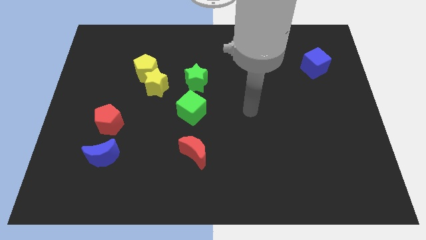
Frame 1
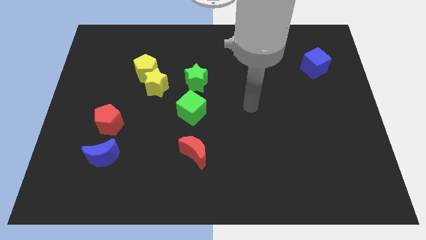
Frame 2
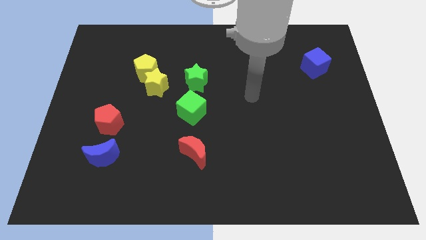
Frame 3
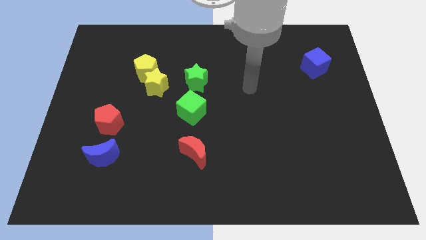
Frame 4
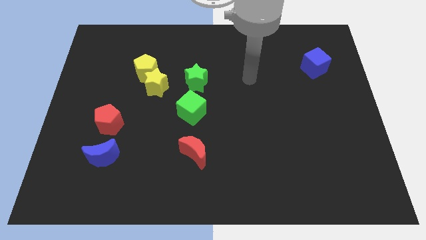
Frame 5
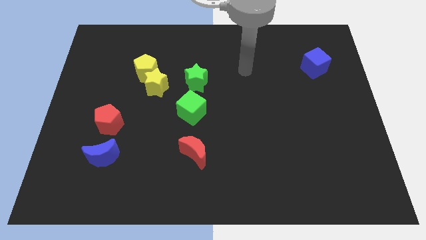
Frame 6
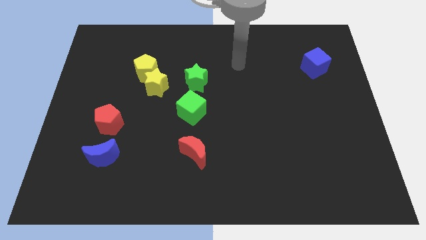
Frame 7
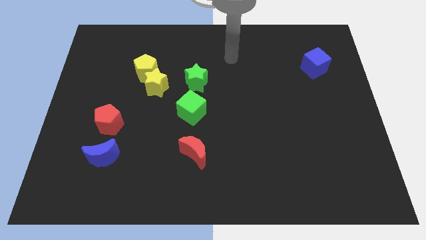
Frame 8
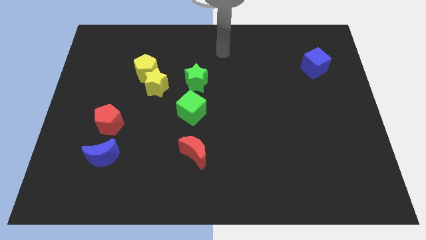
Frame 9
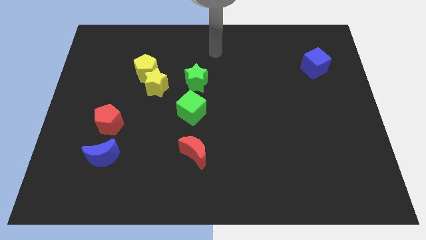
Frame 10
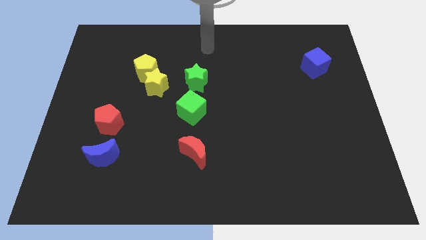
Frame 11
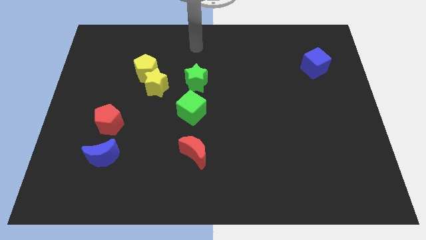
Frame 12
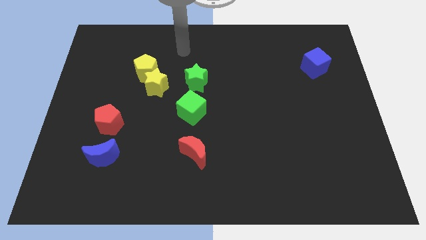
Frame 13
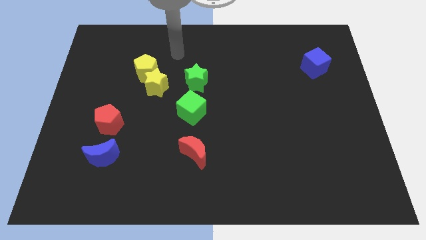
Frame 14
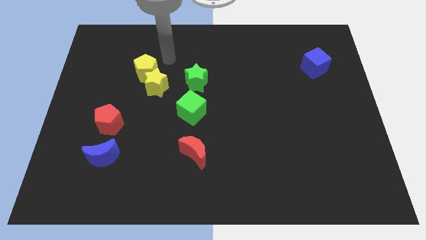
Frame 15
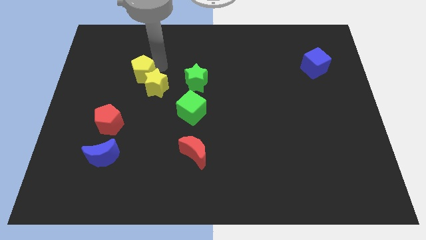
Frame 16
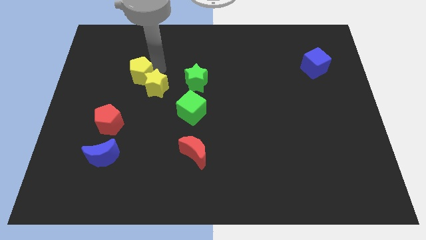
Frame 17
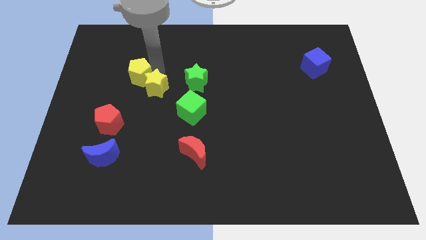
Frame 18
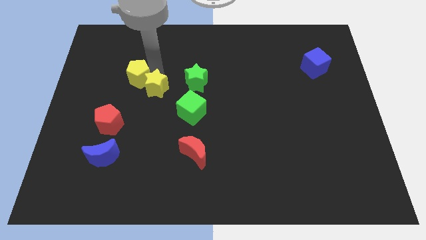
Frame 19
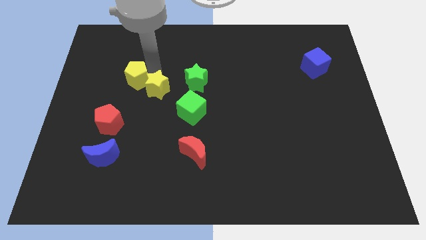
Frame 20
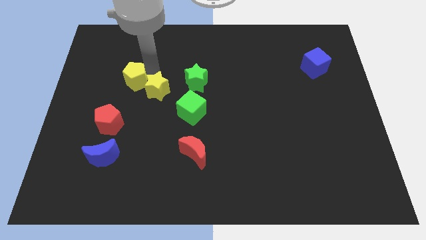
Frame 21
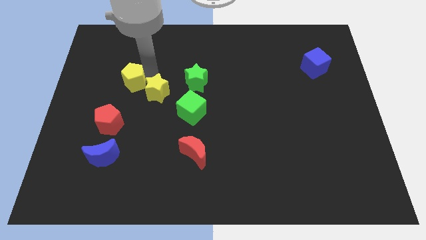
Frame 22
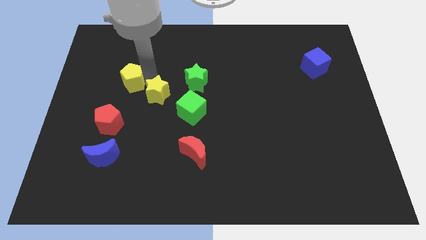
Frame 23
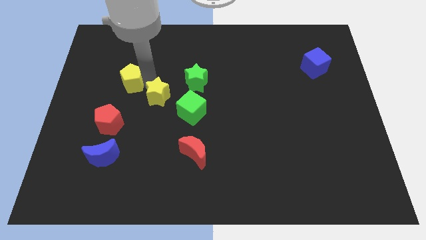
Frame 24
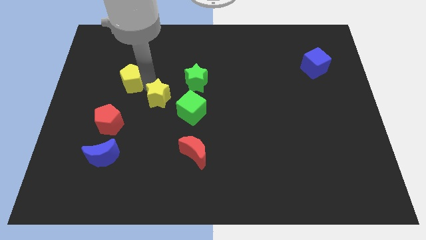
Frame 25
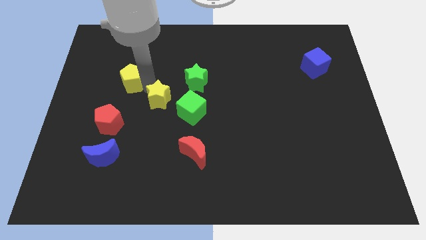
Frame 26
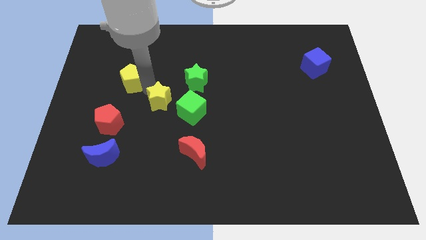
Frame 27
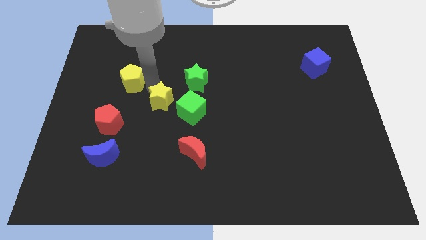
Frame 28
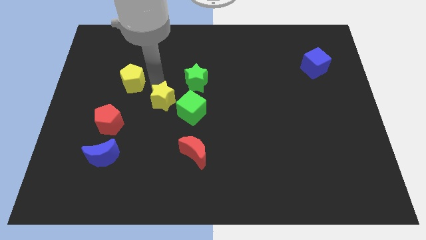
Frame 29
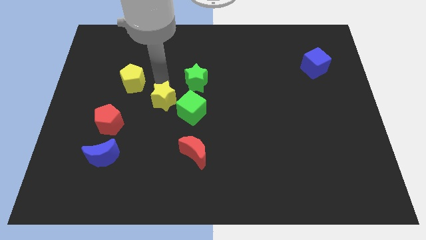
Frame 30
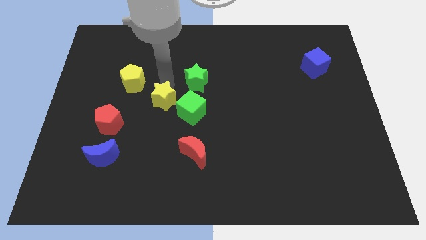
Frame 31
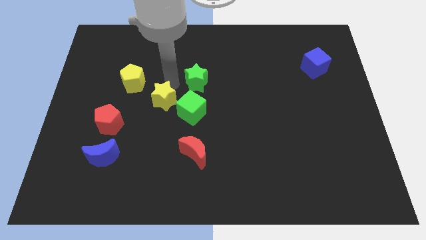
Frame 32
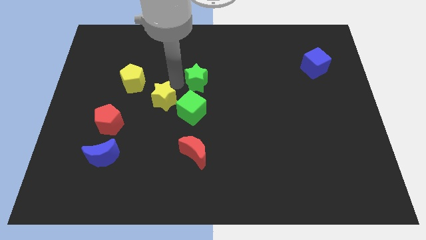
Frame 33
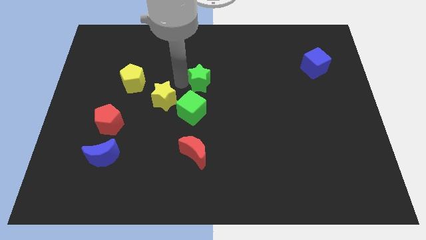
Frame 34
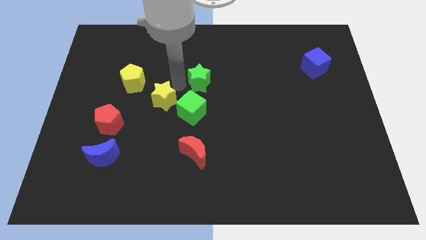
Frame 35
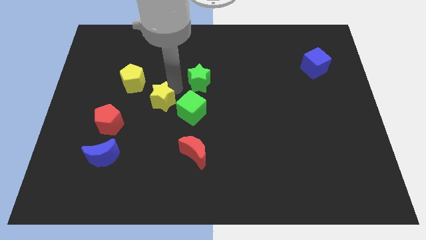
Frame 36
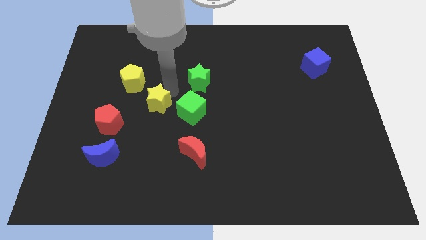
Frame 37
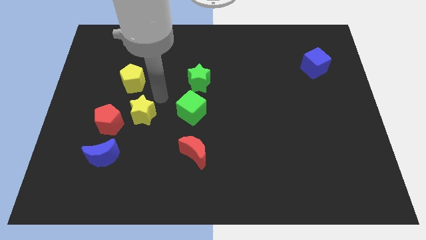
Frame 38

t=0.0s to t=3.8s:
slightly push the yellow star downwards

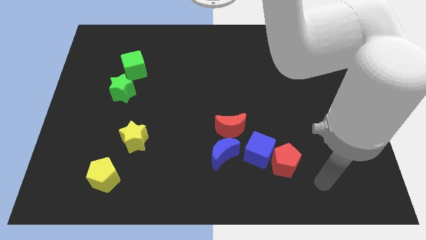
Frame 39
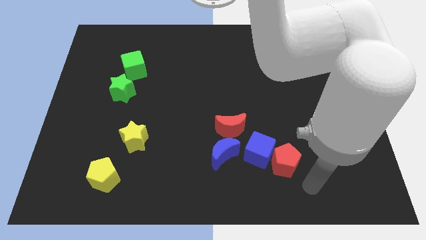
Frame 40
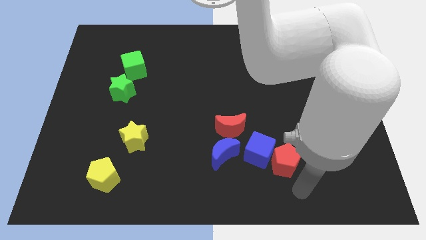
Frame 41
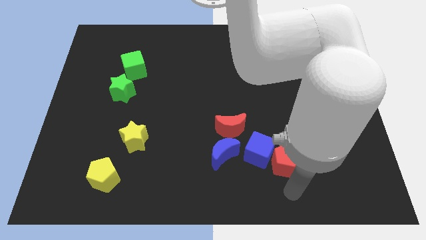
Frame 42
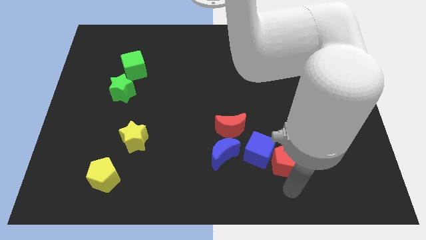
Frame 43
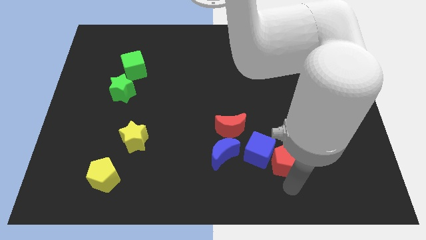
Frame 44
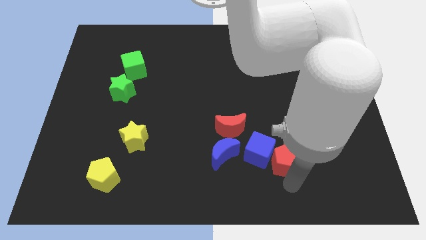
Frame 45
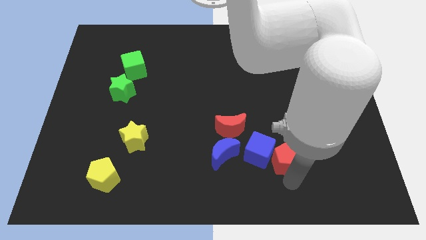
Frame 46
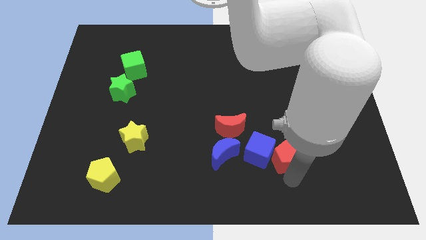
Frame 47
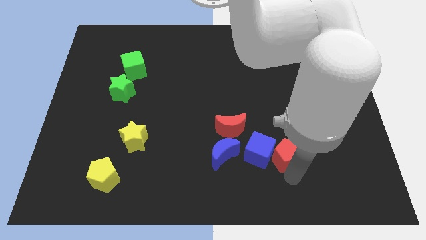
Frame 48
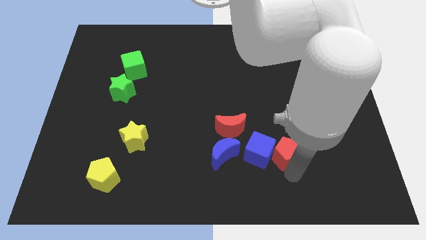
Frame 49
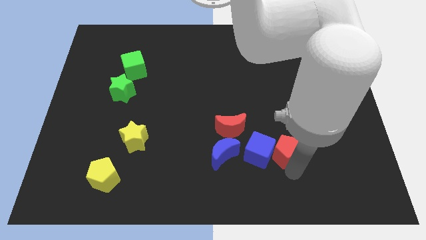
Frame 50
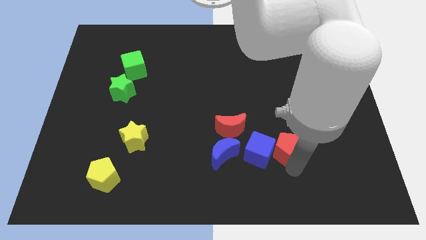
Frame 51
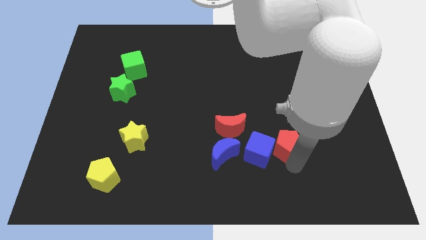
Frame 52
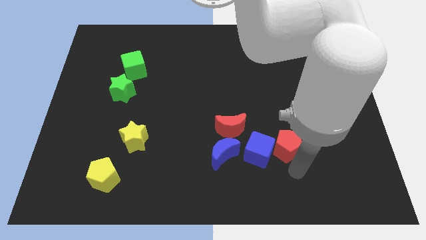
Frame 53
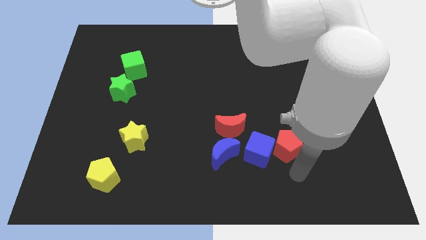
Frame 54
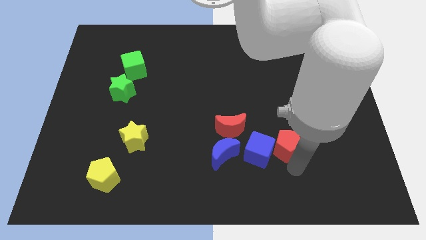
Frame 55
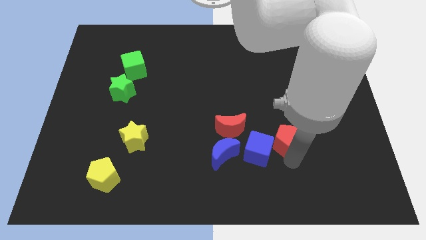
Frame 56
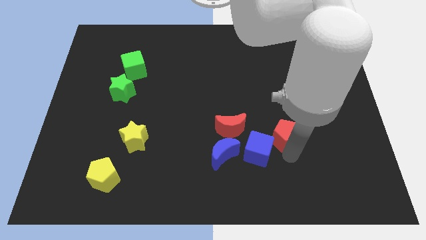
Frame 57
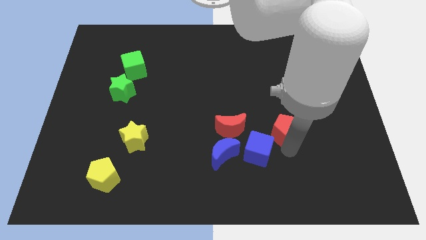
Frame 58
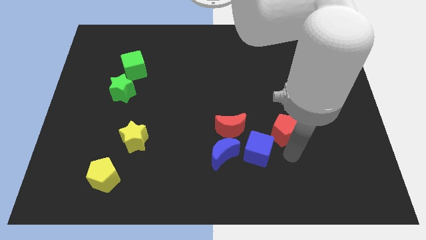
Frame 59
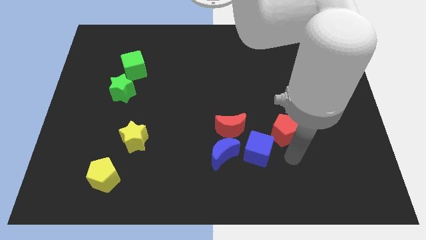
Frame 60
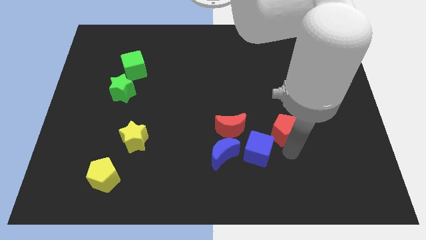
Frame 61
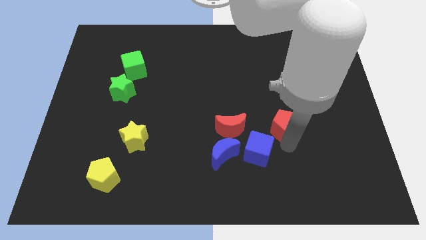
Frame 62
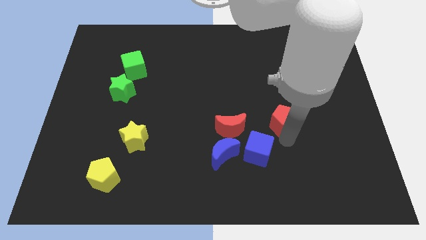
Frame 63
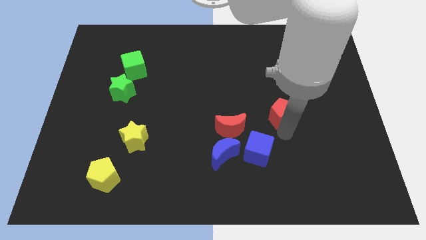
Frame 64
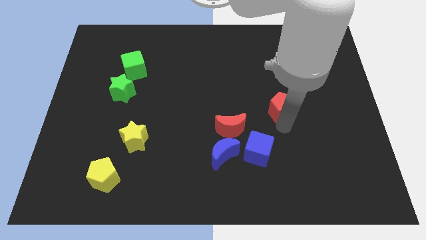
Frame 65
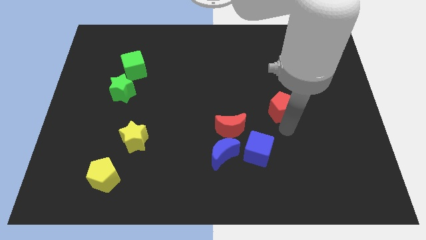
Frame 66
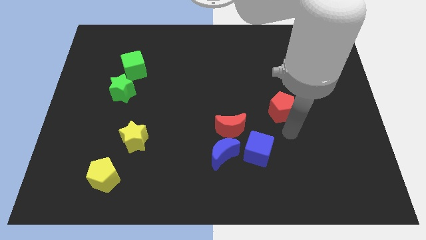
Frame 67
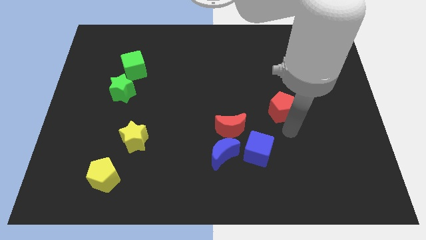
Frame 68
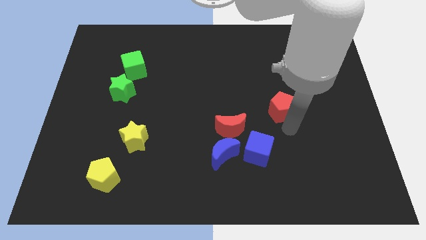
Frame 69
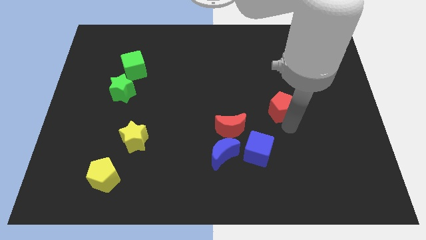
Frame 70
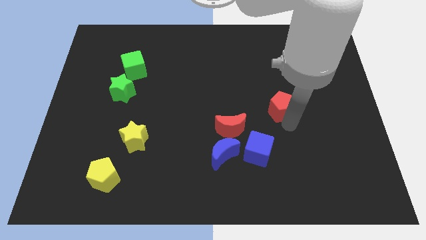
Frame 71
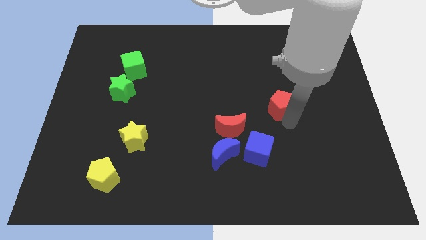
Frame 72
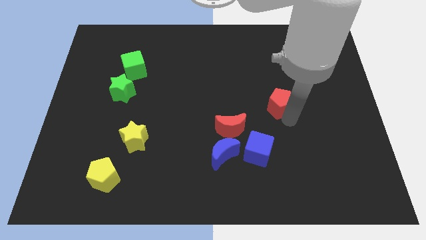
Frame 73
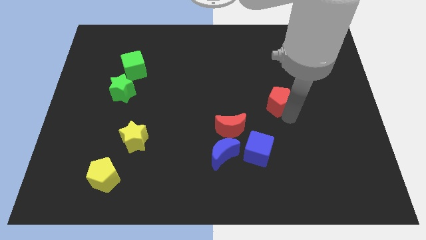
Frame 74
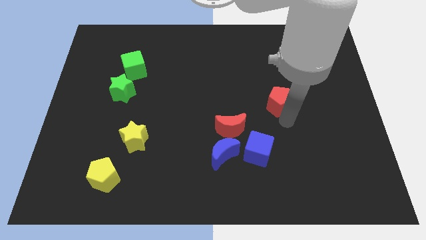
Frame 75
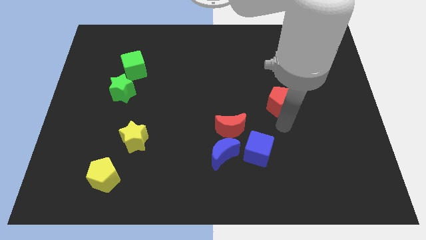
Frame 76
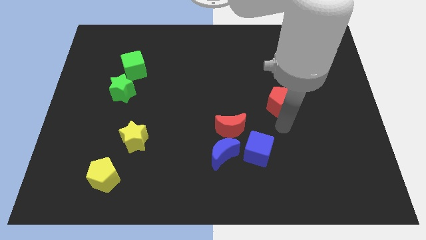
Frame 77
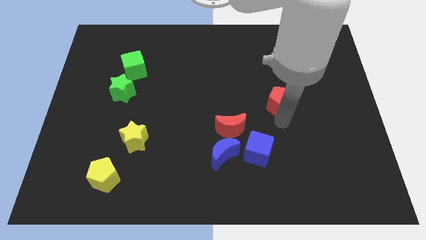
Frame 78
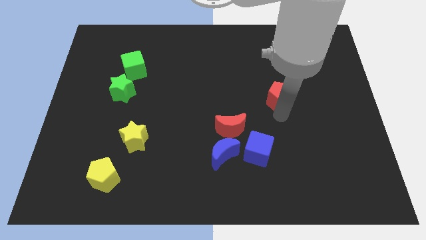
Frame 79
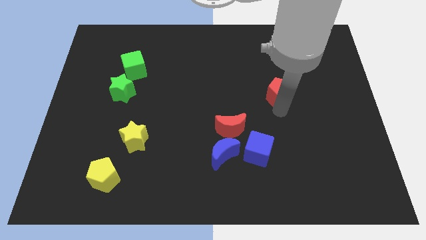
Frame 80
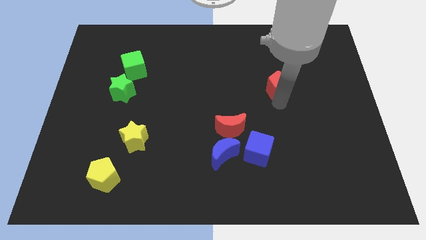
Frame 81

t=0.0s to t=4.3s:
push the red pentagon up

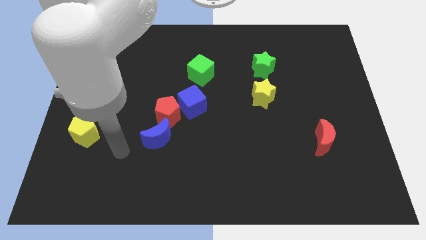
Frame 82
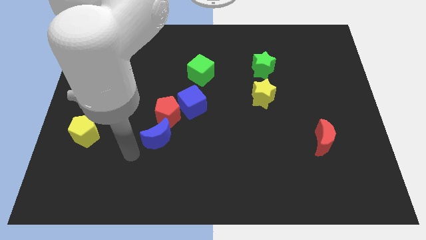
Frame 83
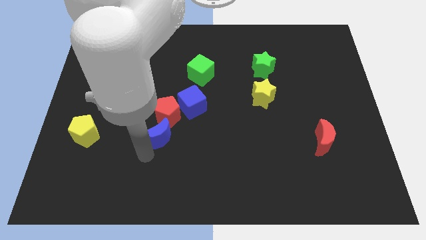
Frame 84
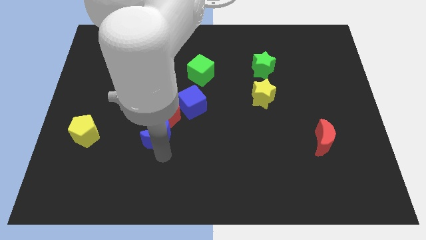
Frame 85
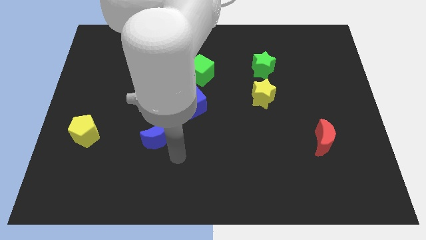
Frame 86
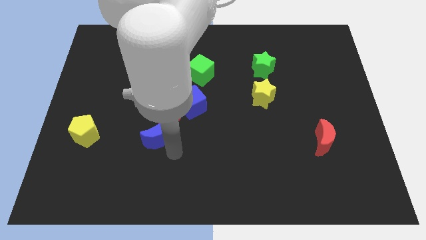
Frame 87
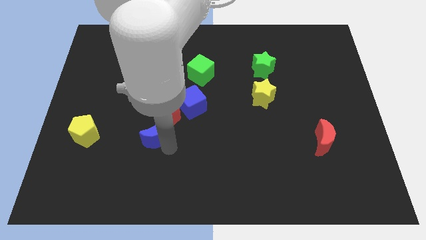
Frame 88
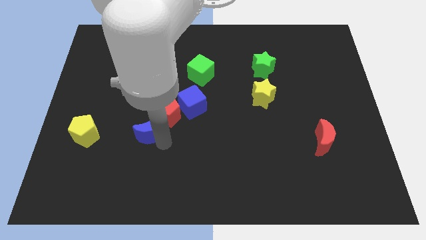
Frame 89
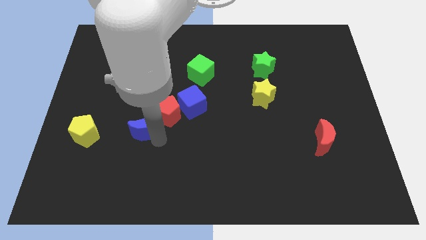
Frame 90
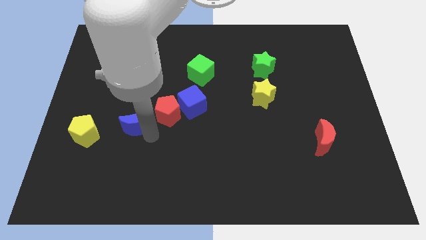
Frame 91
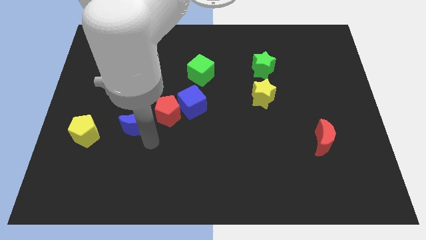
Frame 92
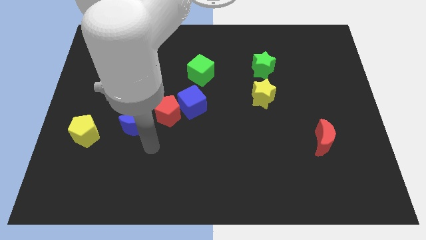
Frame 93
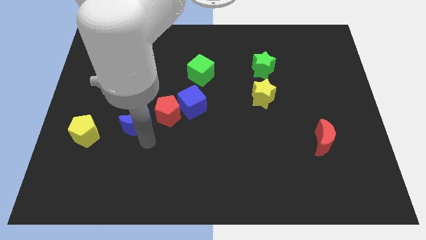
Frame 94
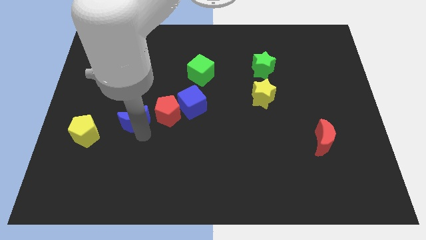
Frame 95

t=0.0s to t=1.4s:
push the blue moon upwards and left diagonally somewhat
